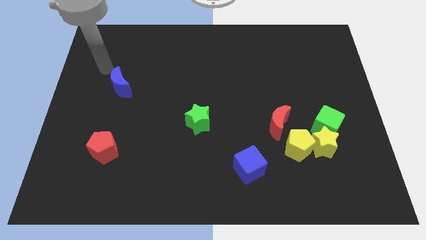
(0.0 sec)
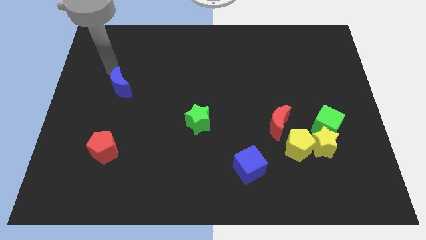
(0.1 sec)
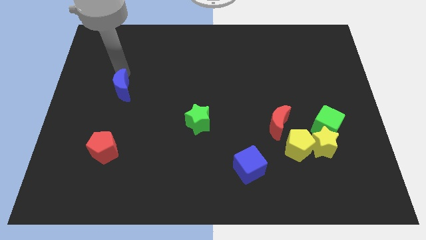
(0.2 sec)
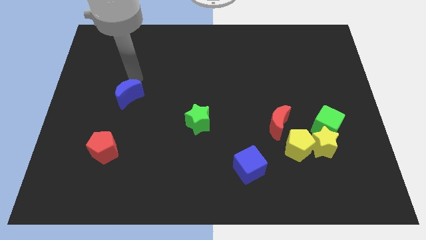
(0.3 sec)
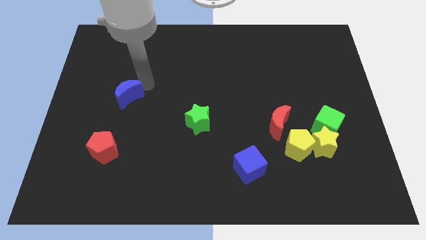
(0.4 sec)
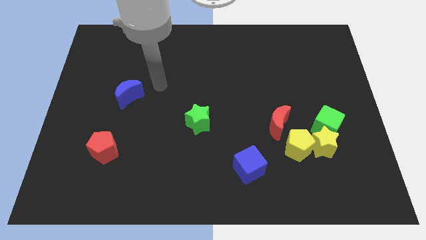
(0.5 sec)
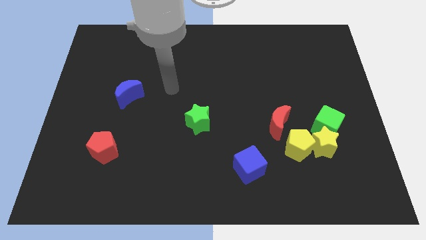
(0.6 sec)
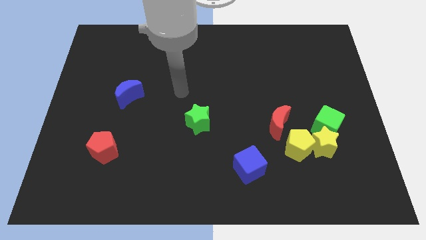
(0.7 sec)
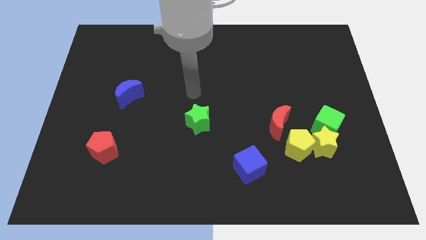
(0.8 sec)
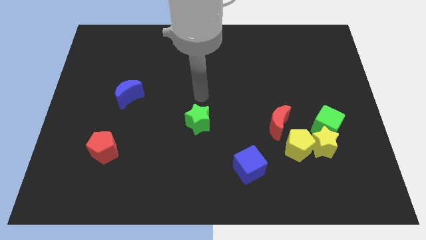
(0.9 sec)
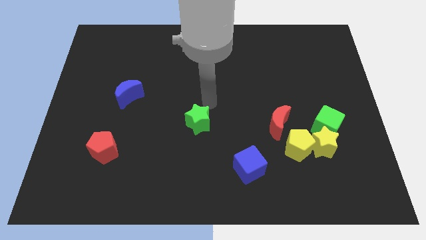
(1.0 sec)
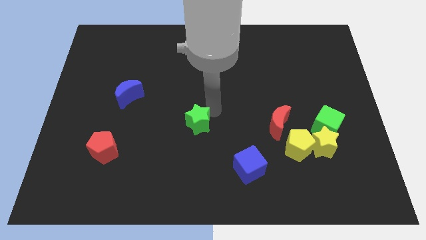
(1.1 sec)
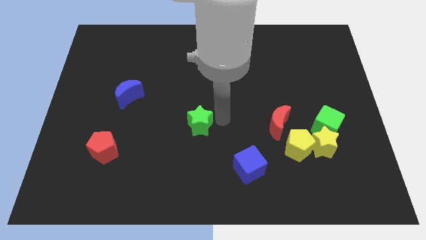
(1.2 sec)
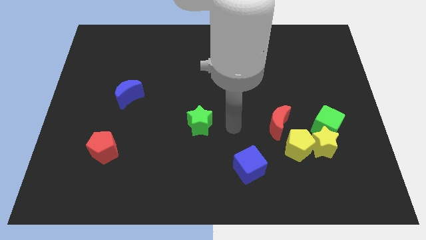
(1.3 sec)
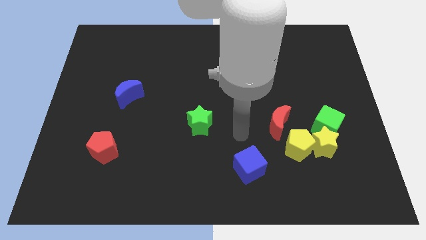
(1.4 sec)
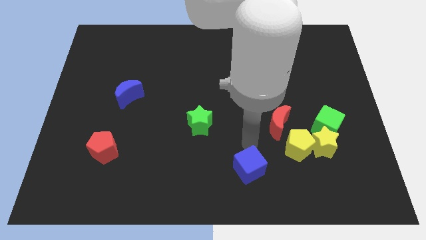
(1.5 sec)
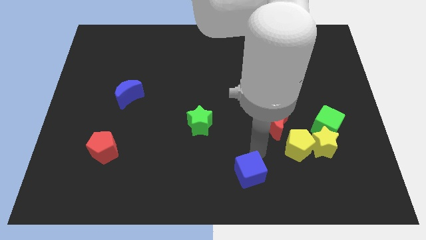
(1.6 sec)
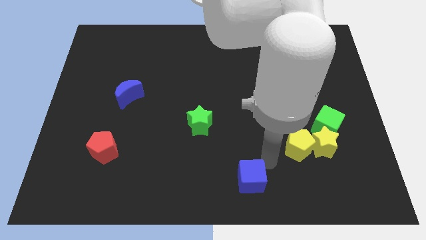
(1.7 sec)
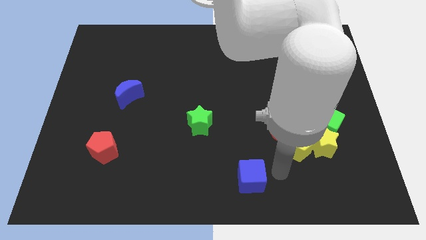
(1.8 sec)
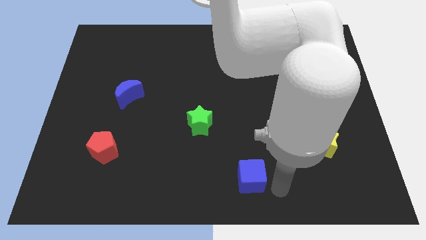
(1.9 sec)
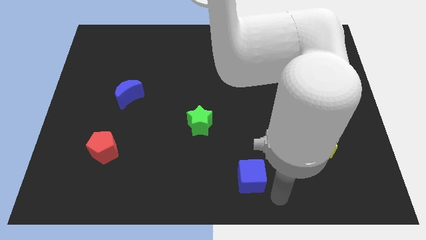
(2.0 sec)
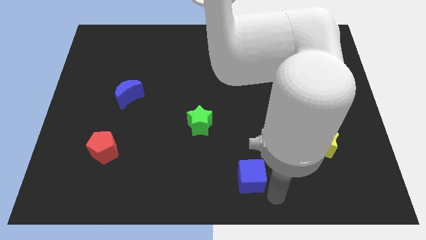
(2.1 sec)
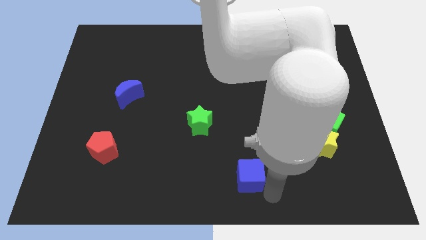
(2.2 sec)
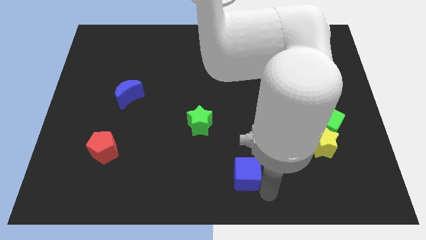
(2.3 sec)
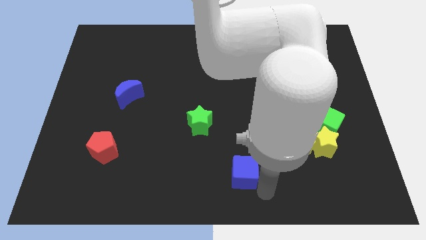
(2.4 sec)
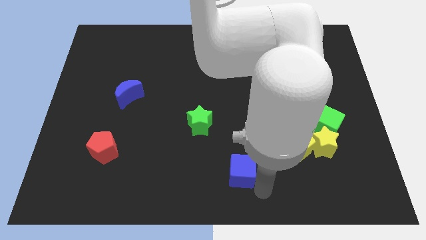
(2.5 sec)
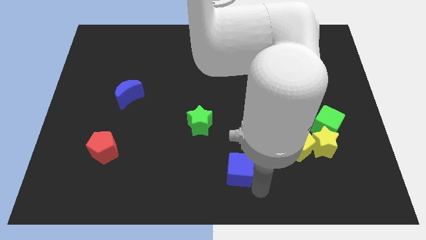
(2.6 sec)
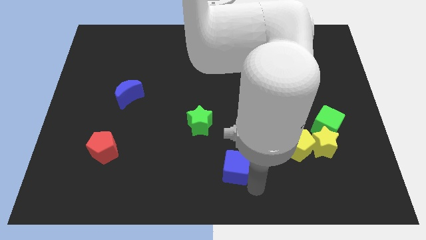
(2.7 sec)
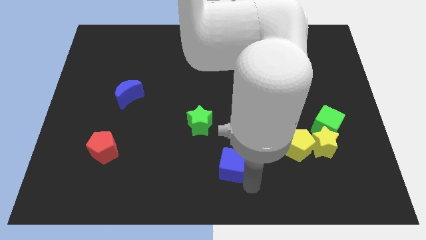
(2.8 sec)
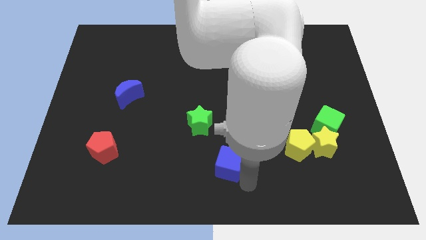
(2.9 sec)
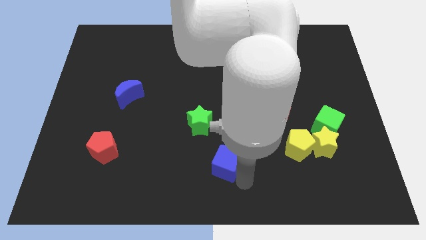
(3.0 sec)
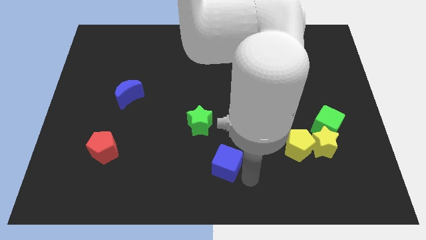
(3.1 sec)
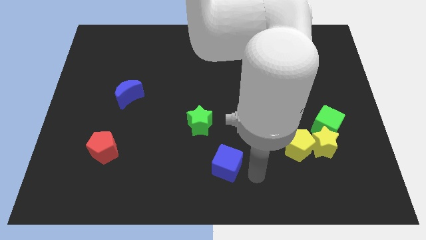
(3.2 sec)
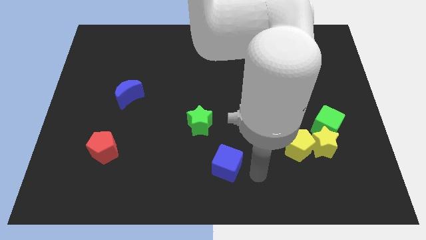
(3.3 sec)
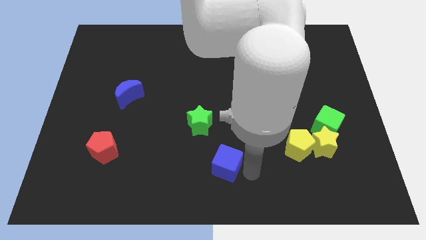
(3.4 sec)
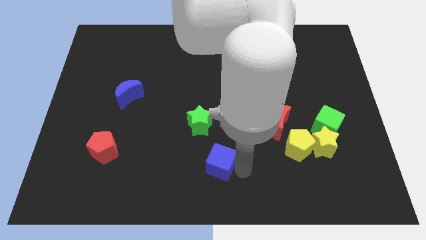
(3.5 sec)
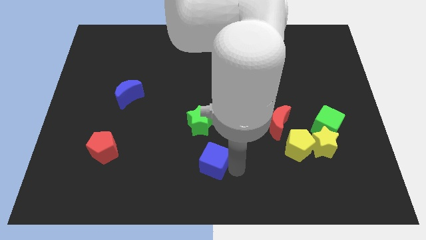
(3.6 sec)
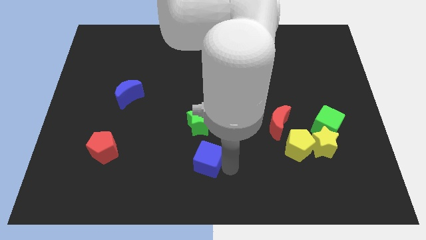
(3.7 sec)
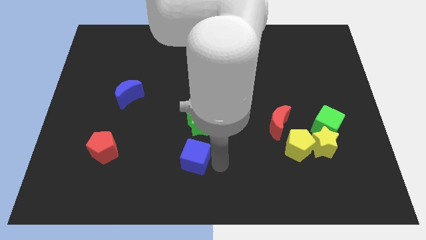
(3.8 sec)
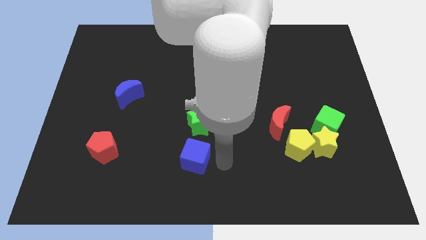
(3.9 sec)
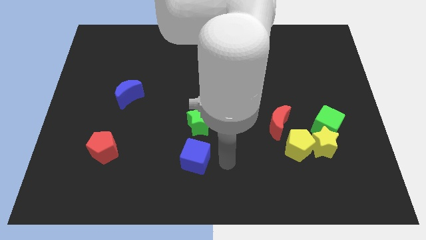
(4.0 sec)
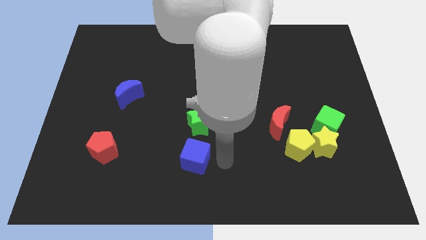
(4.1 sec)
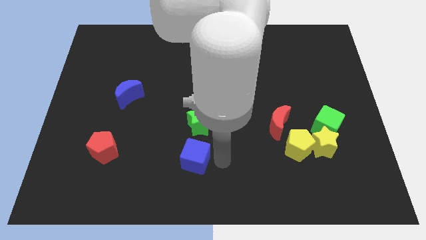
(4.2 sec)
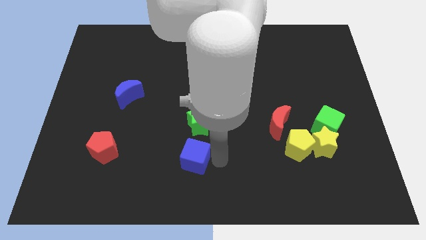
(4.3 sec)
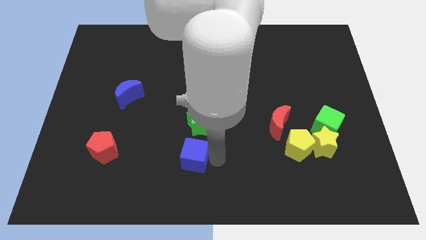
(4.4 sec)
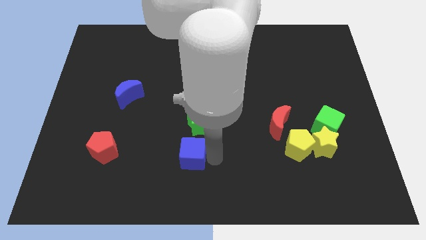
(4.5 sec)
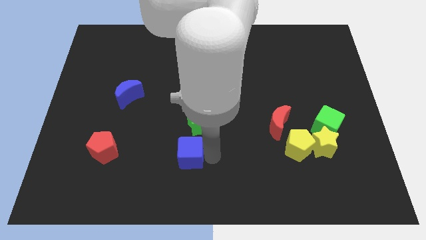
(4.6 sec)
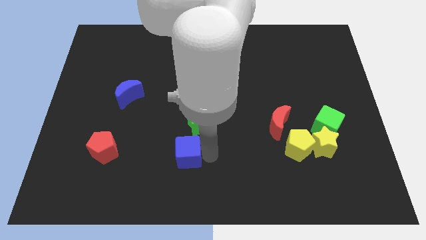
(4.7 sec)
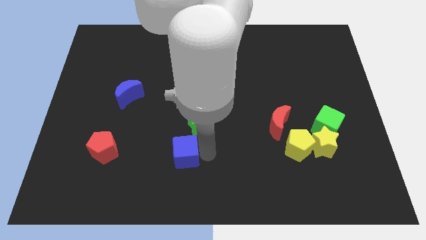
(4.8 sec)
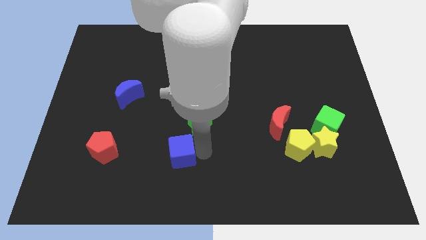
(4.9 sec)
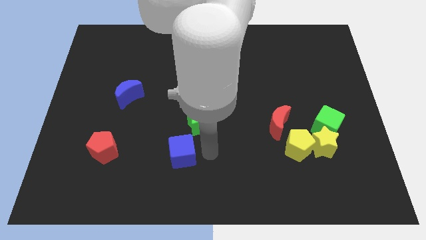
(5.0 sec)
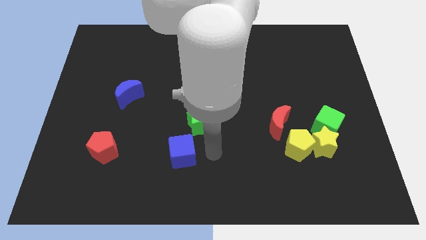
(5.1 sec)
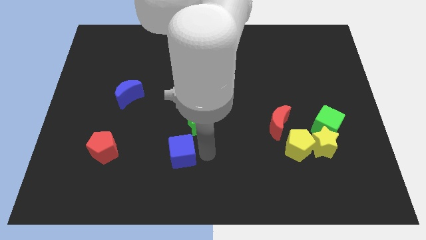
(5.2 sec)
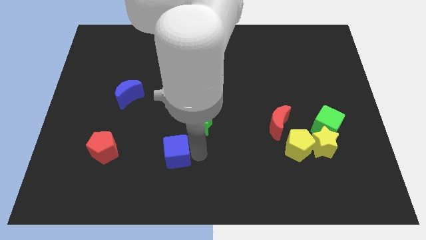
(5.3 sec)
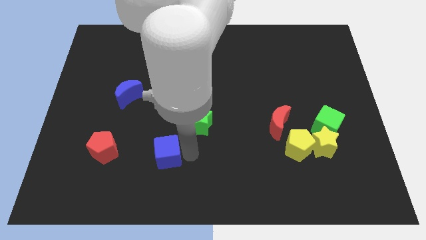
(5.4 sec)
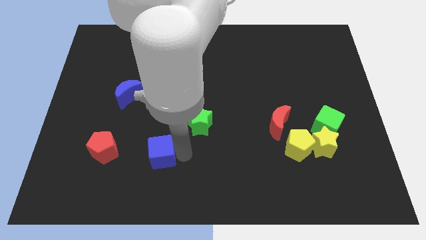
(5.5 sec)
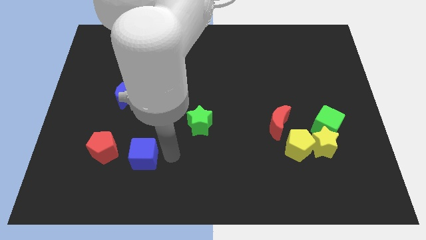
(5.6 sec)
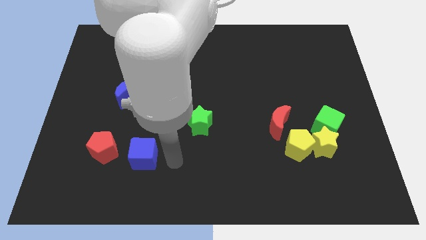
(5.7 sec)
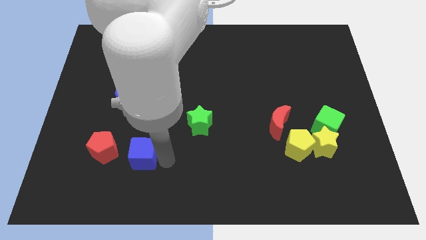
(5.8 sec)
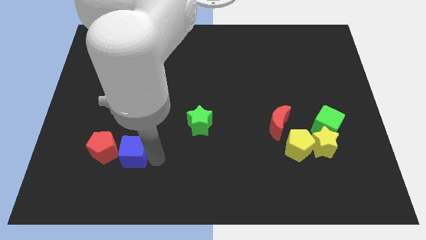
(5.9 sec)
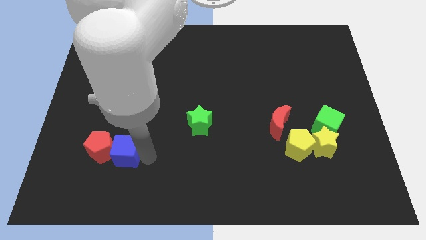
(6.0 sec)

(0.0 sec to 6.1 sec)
put the blue cube next to the red pentagon
